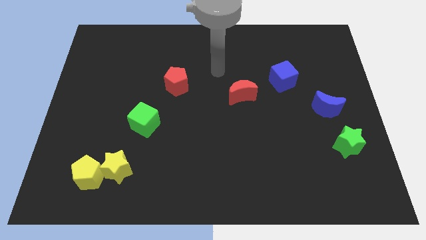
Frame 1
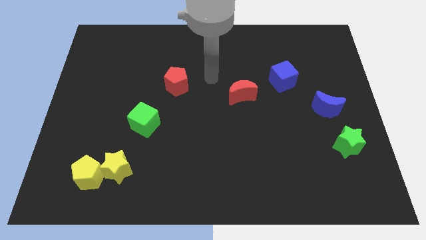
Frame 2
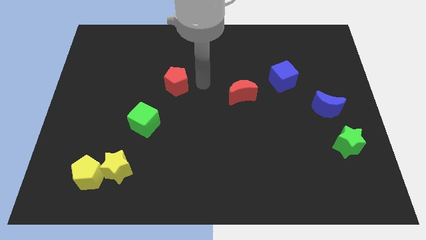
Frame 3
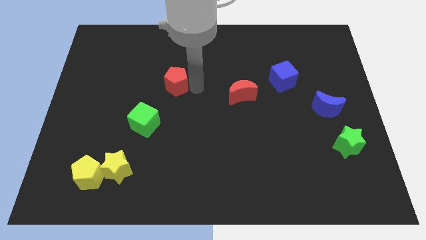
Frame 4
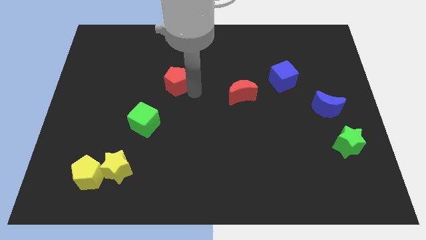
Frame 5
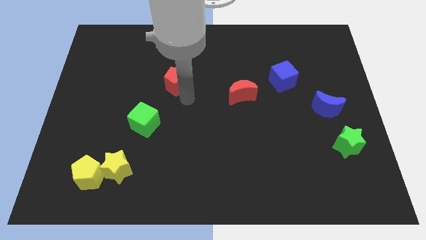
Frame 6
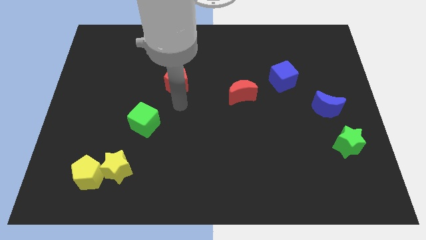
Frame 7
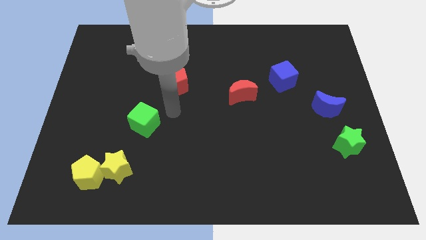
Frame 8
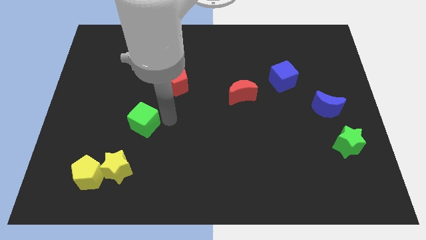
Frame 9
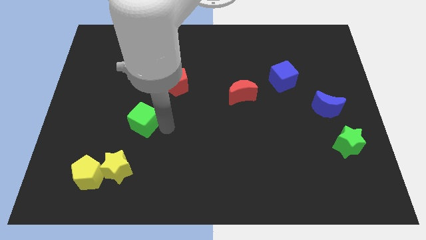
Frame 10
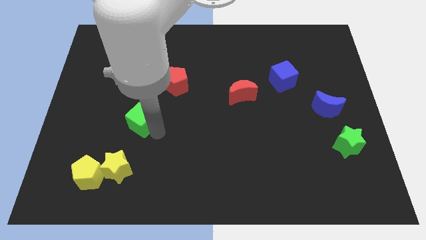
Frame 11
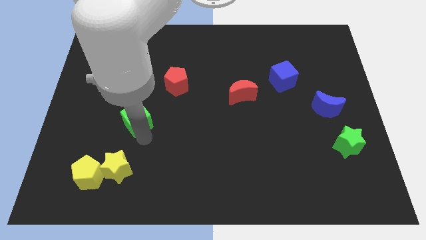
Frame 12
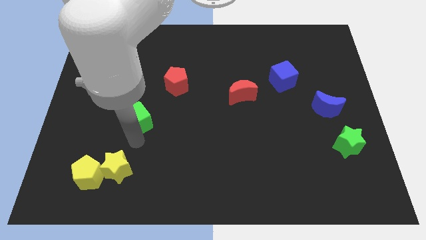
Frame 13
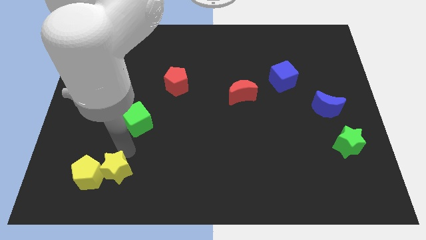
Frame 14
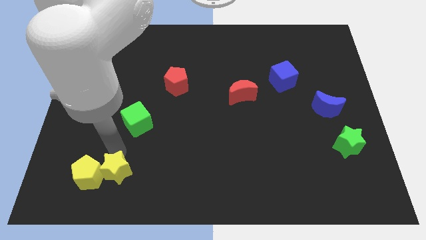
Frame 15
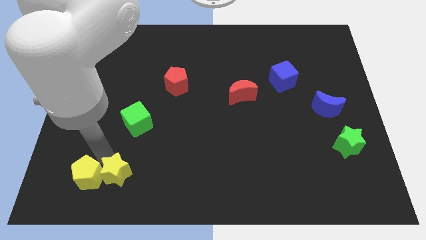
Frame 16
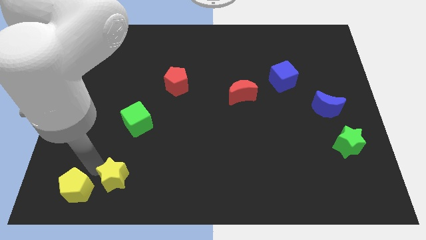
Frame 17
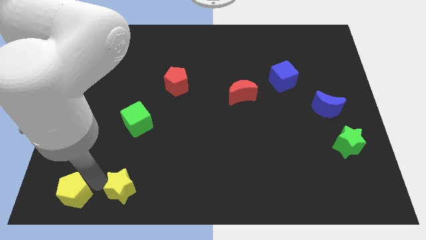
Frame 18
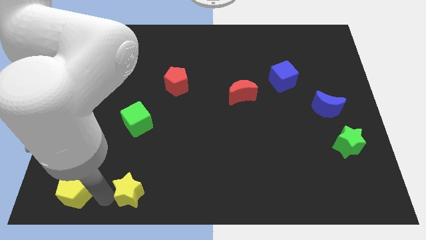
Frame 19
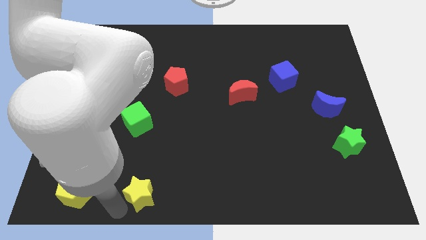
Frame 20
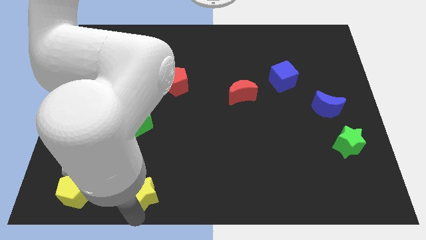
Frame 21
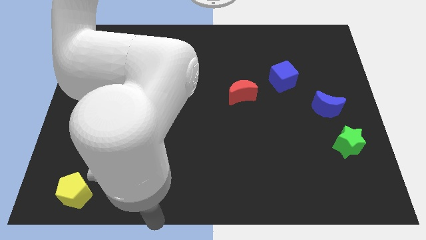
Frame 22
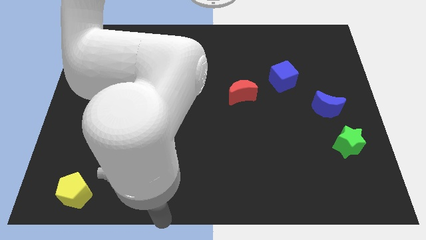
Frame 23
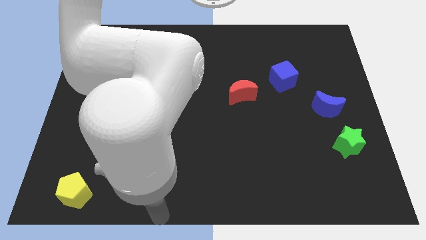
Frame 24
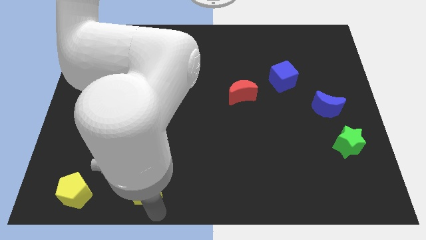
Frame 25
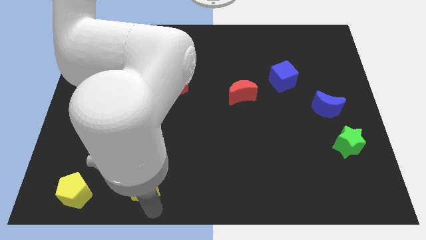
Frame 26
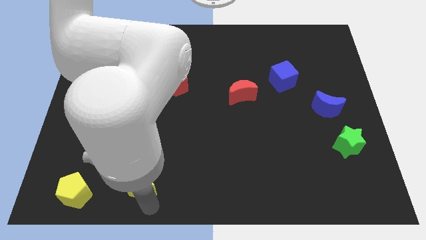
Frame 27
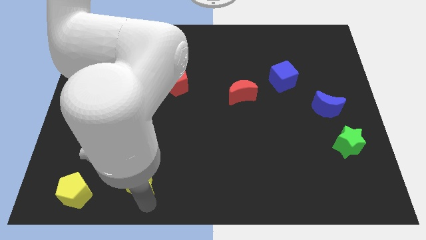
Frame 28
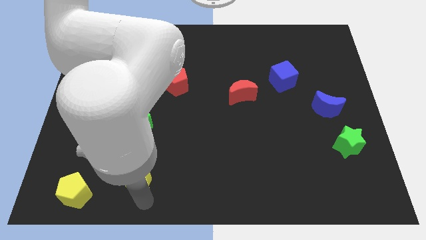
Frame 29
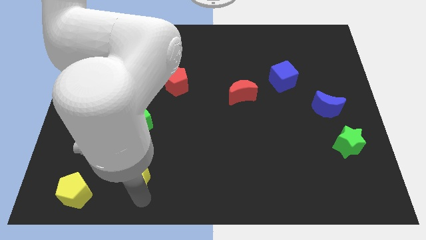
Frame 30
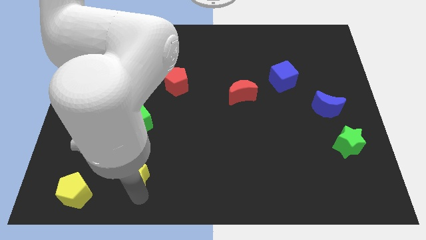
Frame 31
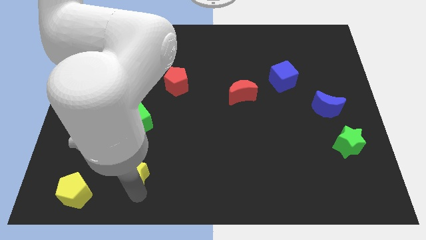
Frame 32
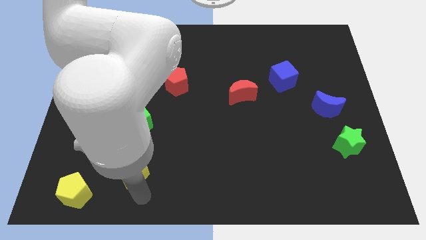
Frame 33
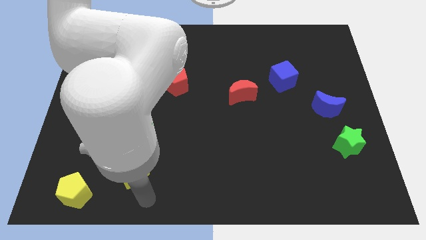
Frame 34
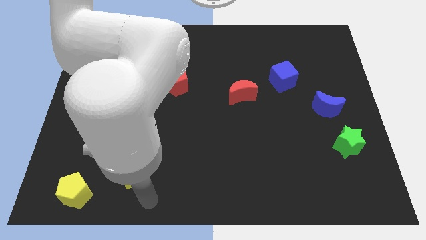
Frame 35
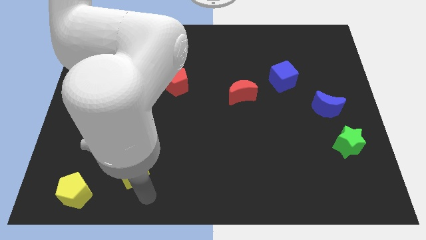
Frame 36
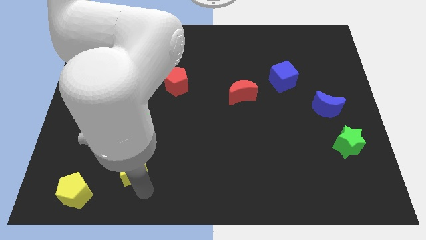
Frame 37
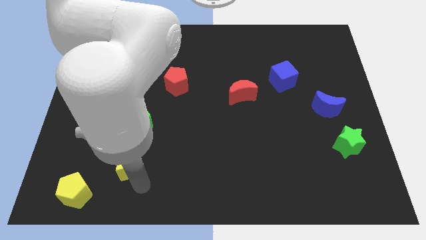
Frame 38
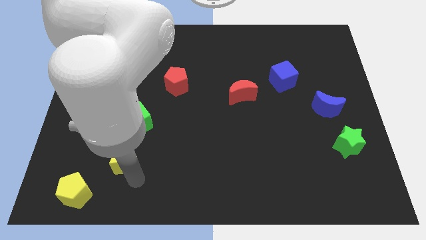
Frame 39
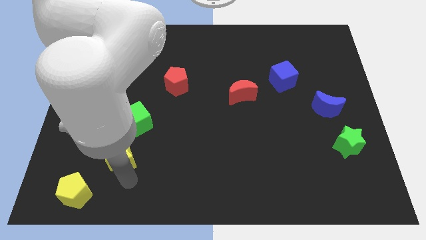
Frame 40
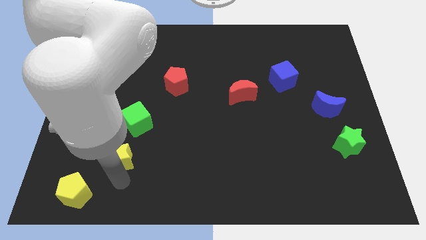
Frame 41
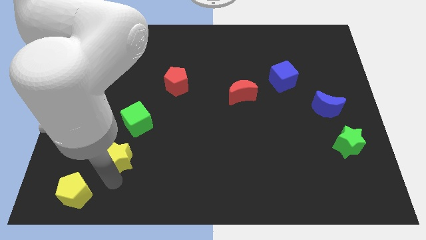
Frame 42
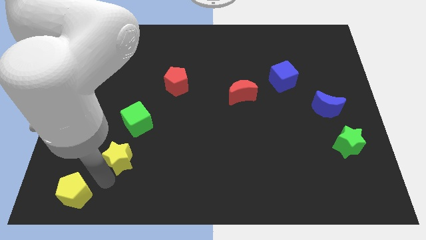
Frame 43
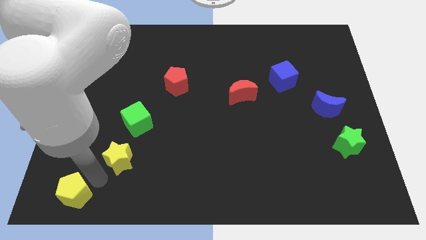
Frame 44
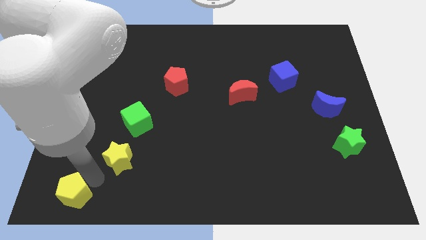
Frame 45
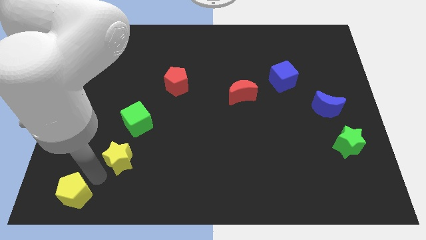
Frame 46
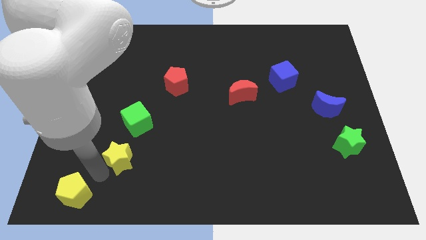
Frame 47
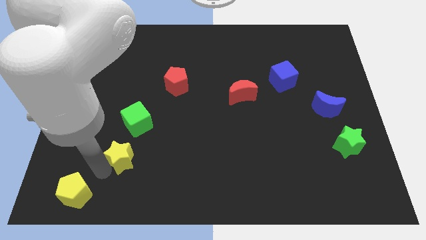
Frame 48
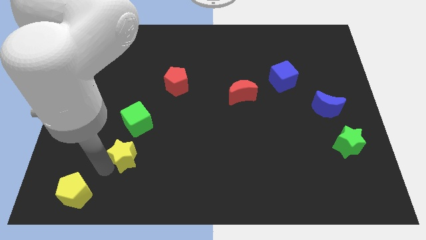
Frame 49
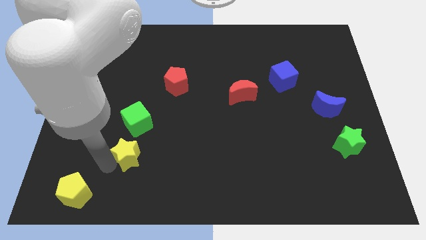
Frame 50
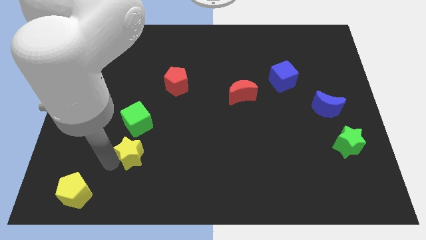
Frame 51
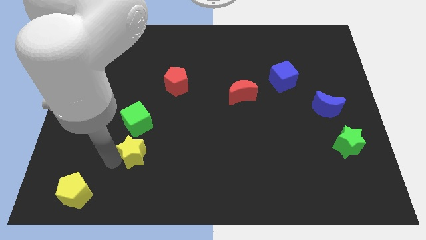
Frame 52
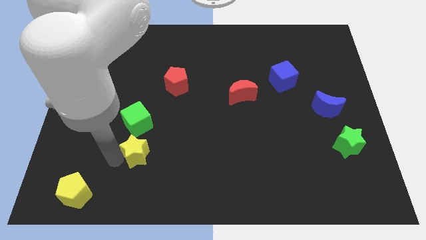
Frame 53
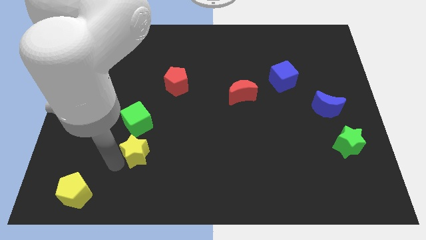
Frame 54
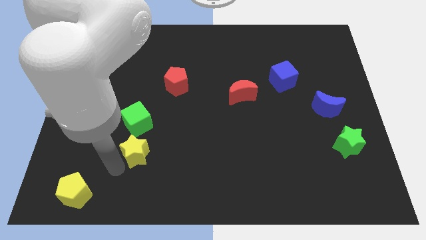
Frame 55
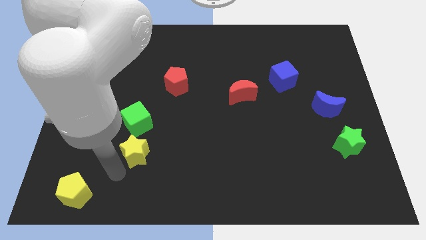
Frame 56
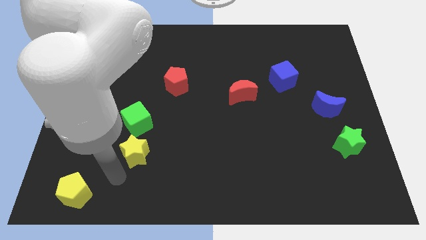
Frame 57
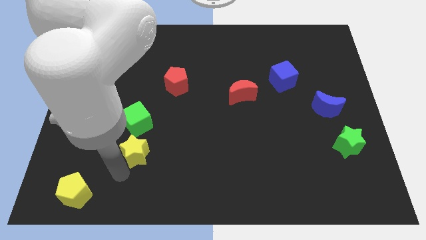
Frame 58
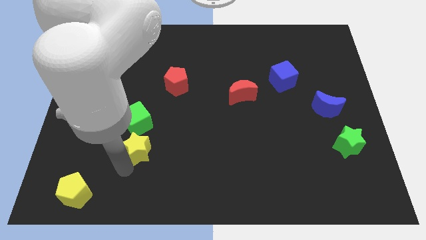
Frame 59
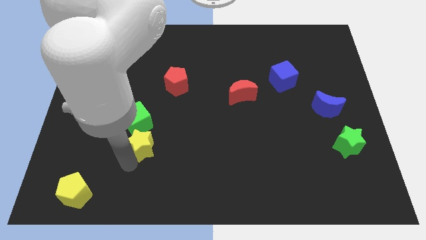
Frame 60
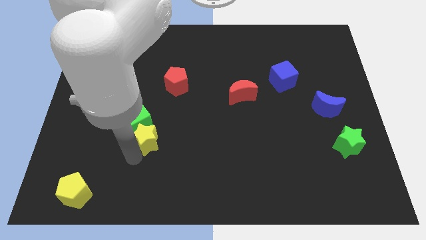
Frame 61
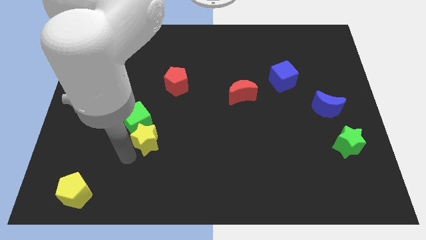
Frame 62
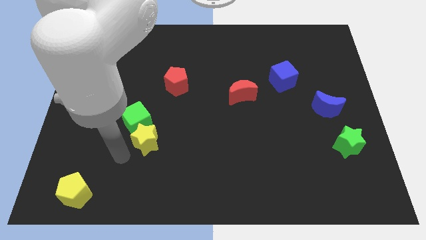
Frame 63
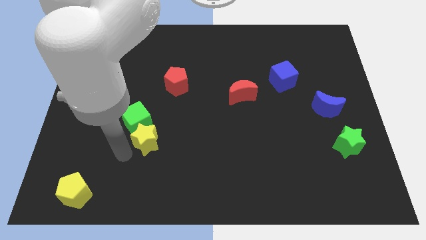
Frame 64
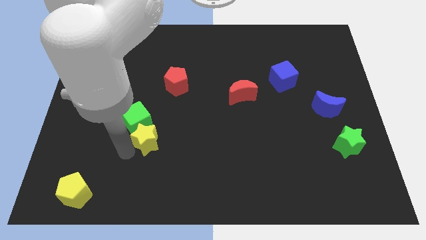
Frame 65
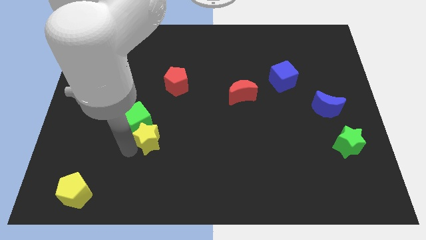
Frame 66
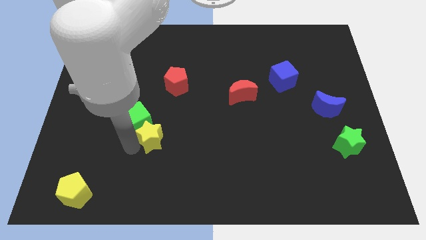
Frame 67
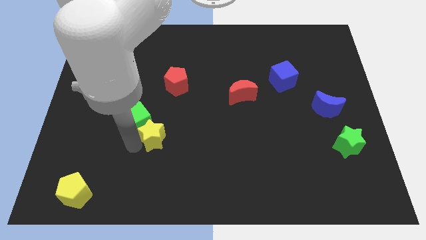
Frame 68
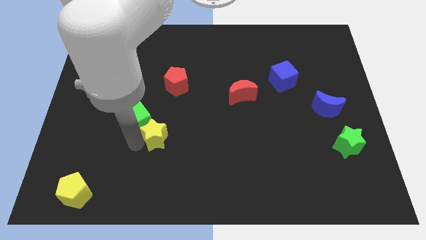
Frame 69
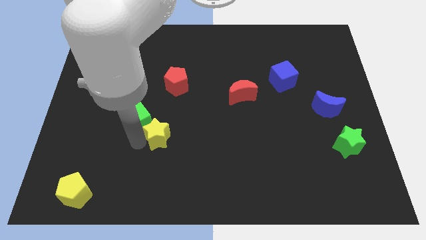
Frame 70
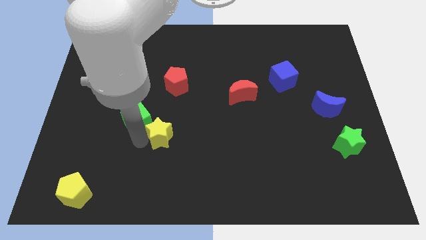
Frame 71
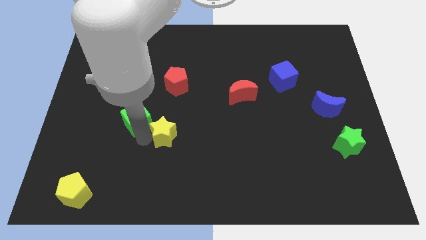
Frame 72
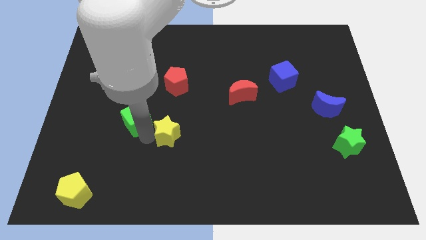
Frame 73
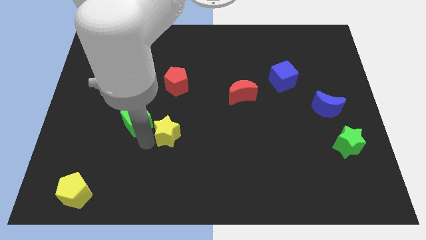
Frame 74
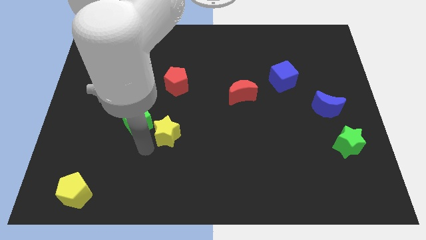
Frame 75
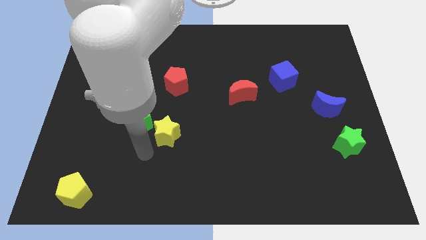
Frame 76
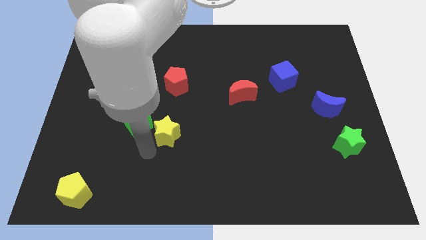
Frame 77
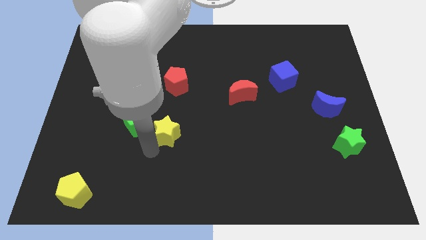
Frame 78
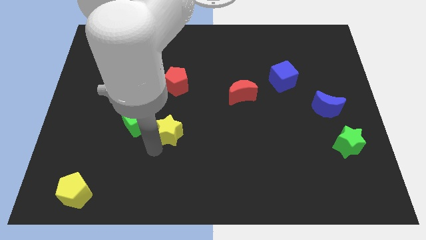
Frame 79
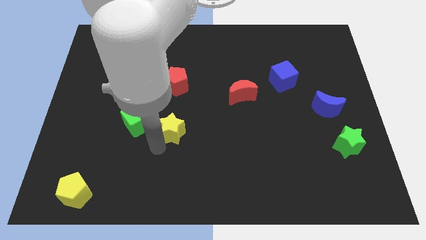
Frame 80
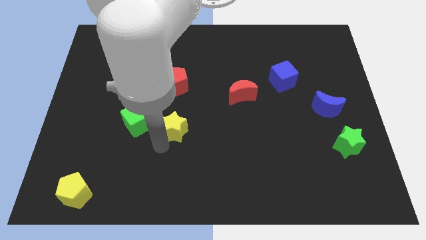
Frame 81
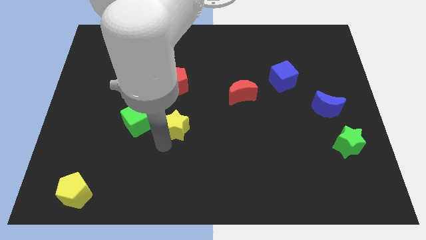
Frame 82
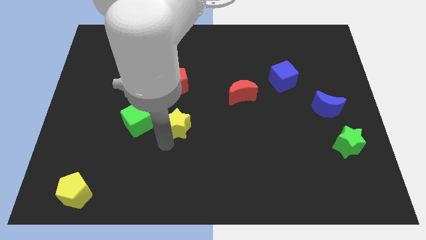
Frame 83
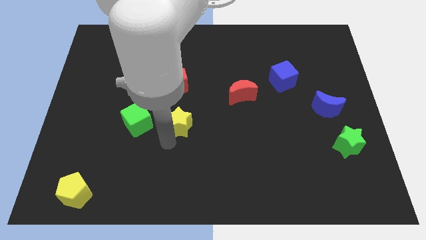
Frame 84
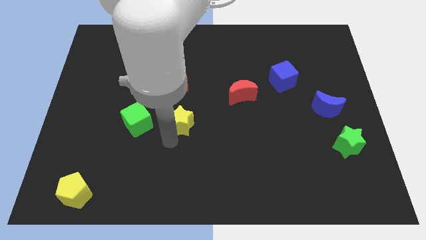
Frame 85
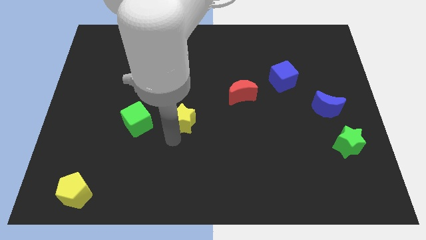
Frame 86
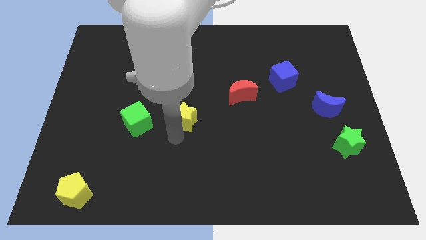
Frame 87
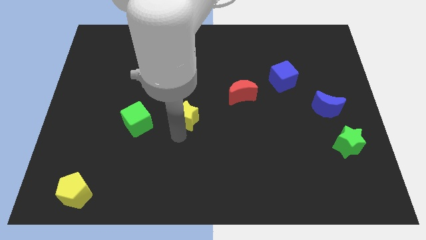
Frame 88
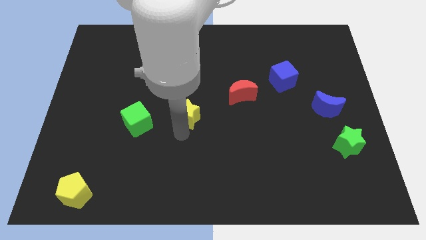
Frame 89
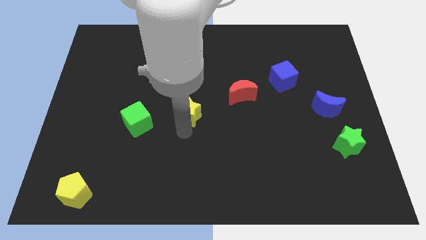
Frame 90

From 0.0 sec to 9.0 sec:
slide the yellow star upwards and to the right
